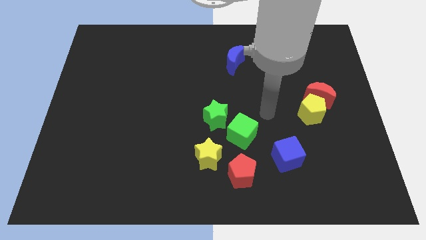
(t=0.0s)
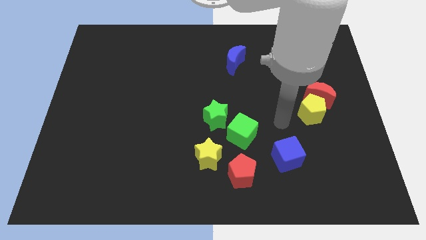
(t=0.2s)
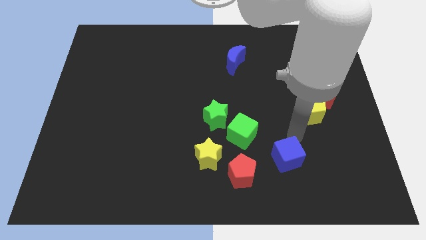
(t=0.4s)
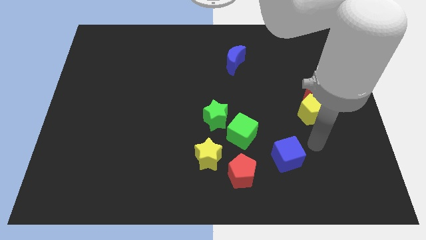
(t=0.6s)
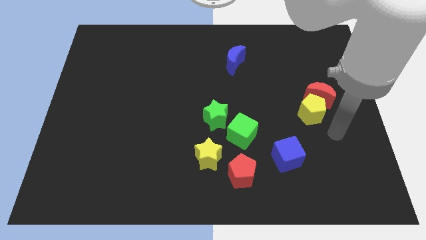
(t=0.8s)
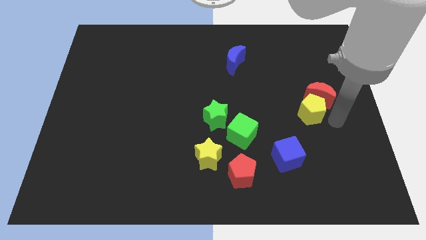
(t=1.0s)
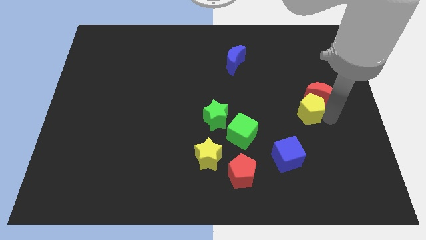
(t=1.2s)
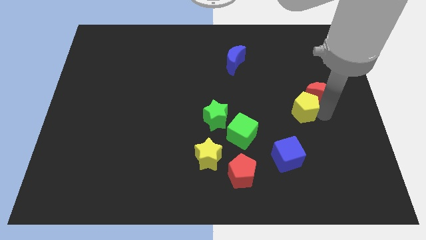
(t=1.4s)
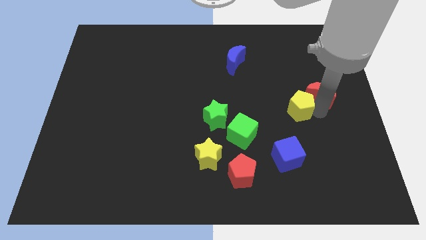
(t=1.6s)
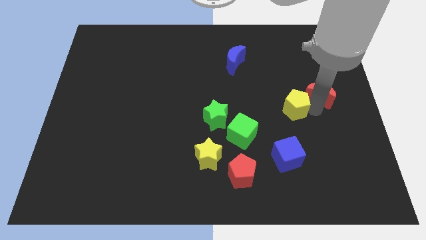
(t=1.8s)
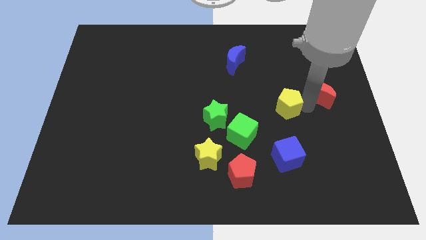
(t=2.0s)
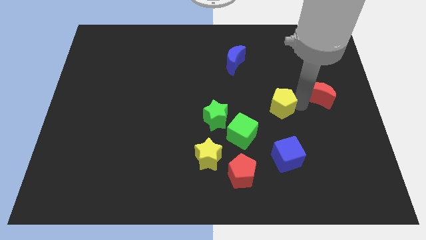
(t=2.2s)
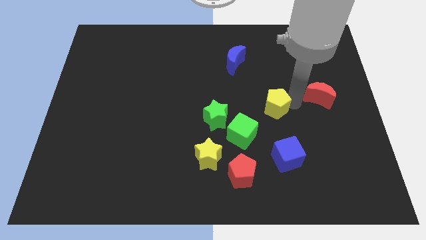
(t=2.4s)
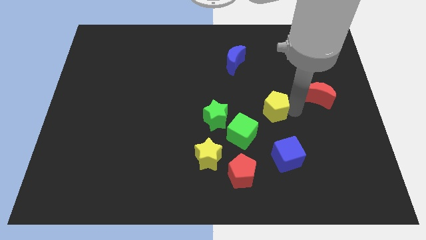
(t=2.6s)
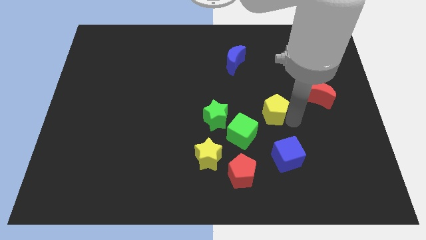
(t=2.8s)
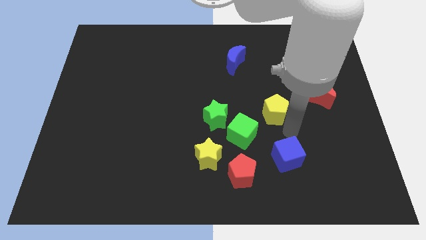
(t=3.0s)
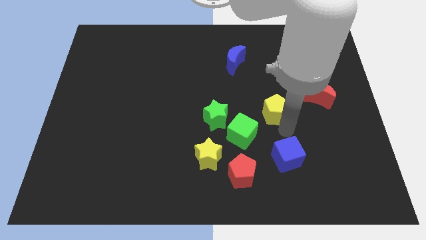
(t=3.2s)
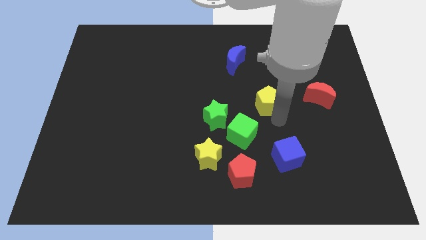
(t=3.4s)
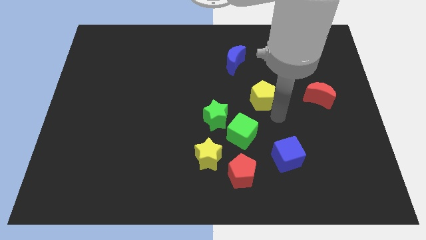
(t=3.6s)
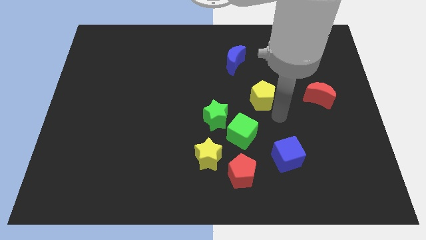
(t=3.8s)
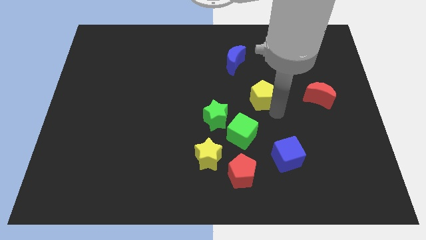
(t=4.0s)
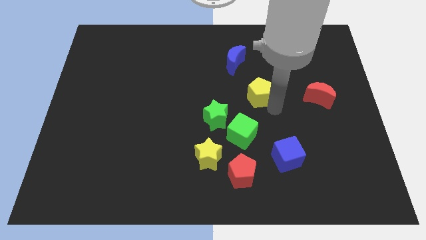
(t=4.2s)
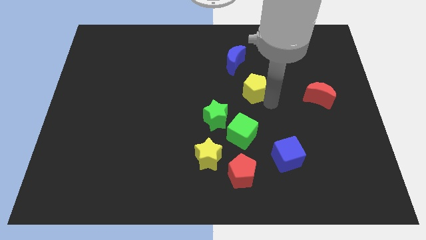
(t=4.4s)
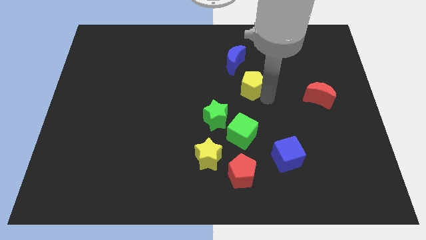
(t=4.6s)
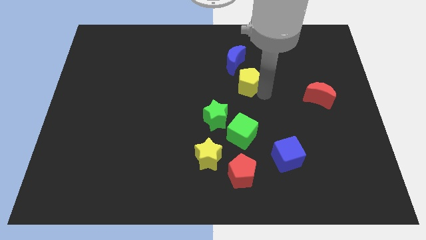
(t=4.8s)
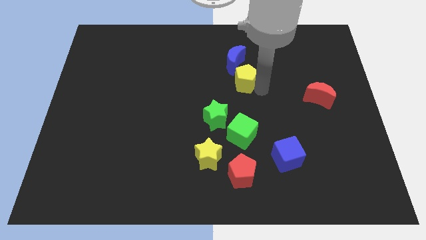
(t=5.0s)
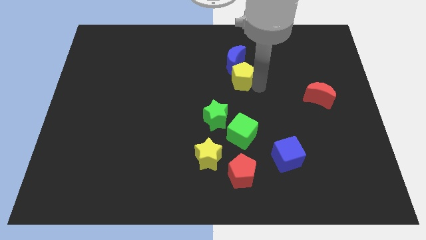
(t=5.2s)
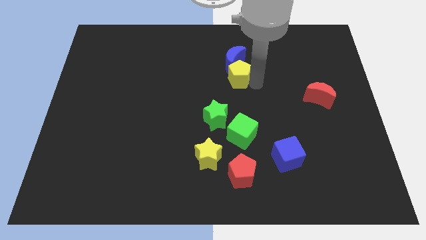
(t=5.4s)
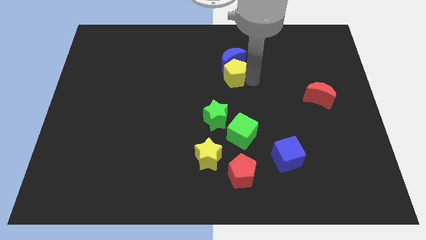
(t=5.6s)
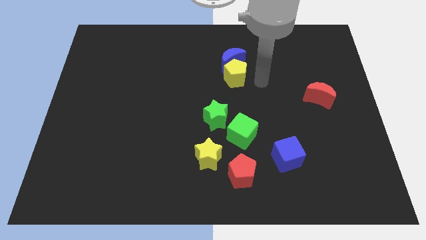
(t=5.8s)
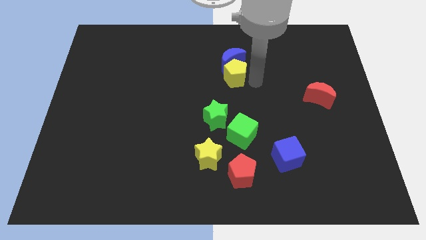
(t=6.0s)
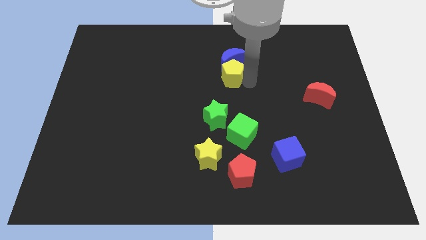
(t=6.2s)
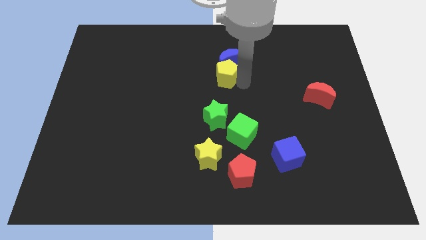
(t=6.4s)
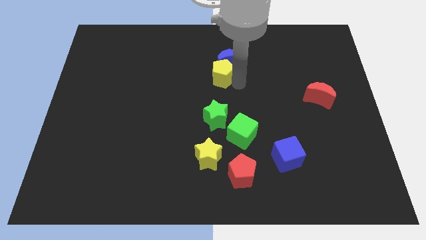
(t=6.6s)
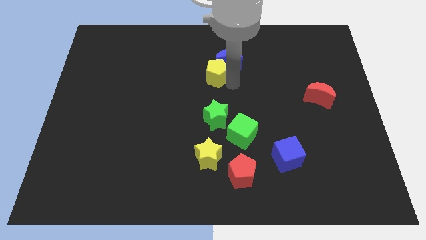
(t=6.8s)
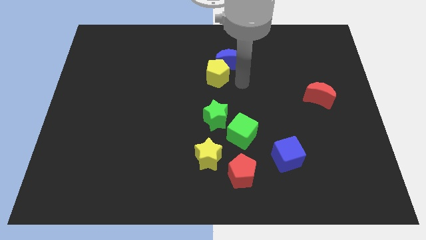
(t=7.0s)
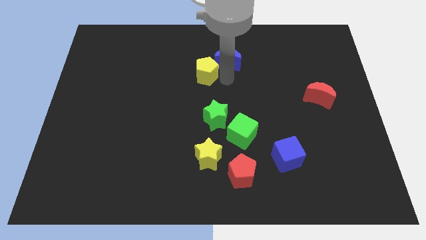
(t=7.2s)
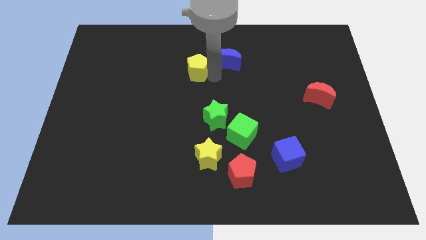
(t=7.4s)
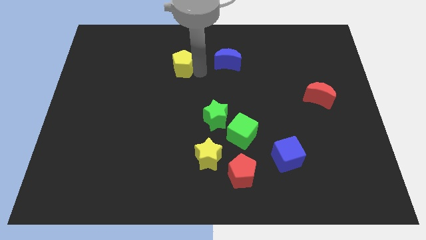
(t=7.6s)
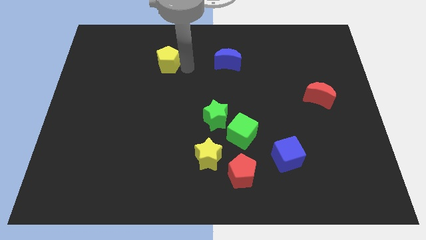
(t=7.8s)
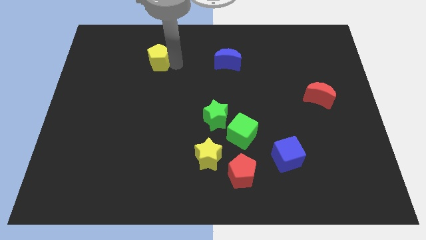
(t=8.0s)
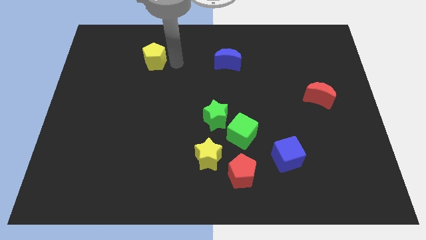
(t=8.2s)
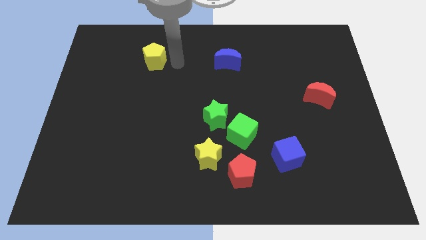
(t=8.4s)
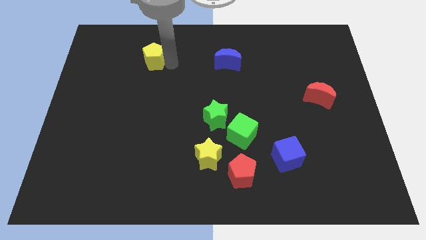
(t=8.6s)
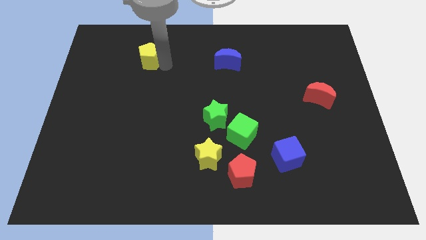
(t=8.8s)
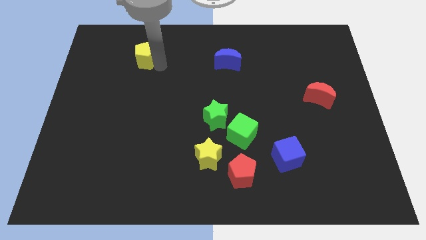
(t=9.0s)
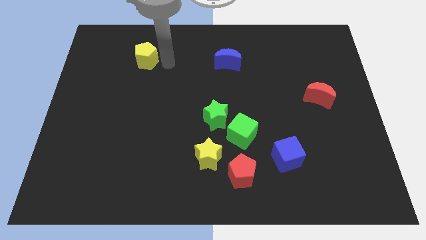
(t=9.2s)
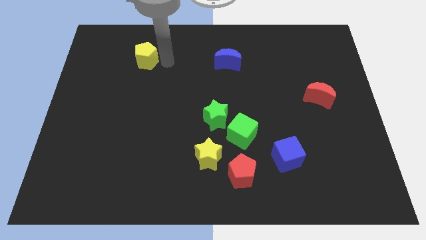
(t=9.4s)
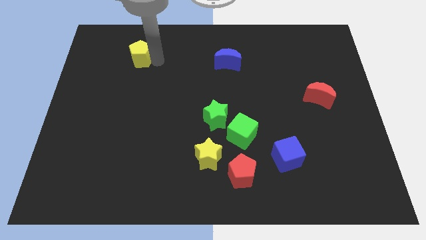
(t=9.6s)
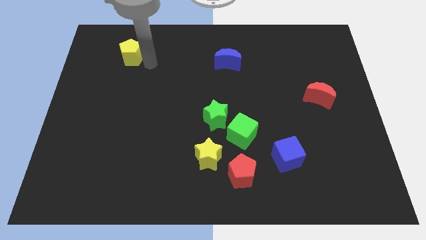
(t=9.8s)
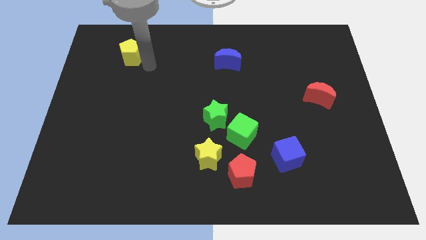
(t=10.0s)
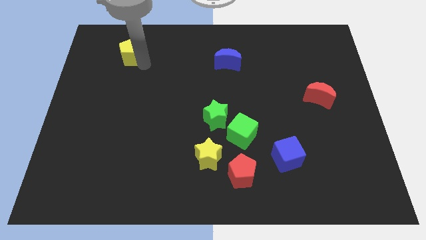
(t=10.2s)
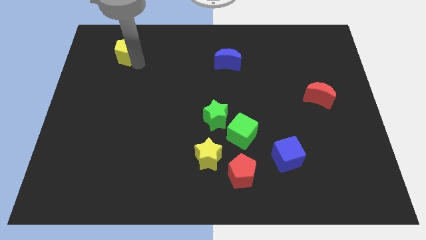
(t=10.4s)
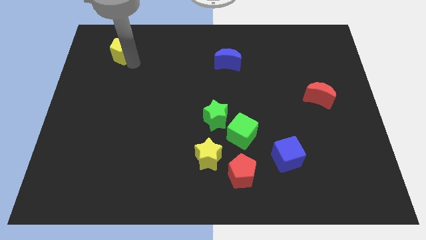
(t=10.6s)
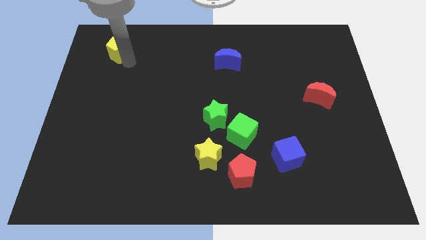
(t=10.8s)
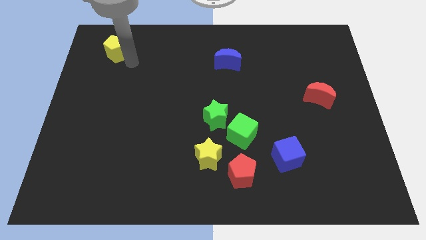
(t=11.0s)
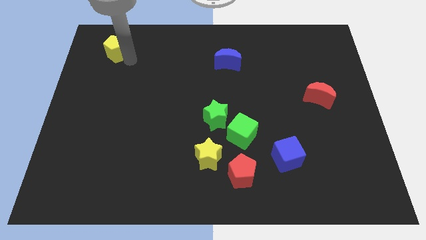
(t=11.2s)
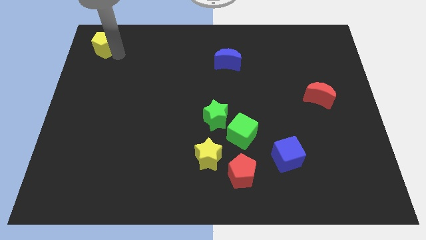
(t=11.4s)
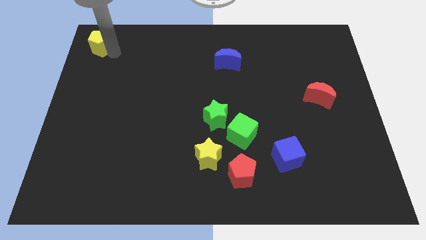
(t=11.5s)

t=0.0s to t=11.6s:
slide the yellow pentagon to the top left
